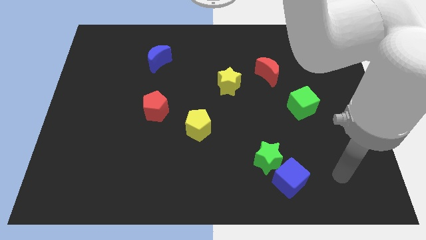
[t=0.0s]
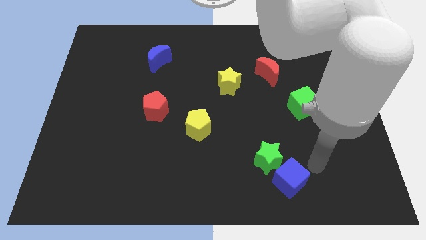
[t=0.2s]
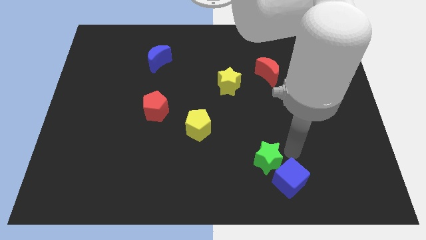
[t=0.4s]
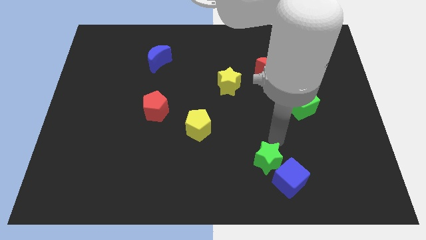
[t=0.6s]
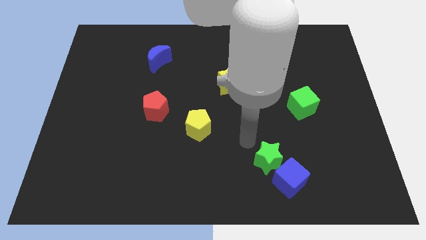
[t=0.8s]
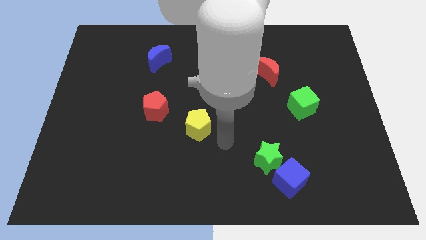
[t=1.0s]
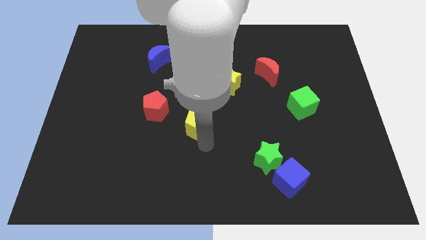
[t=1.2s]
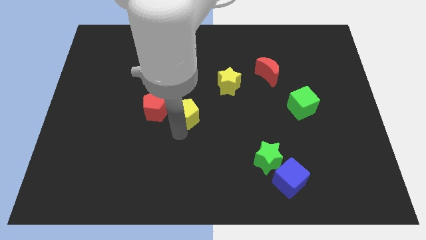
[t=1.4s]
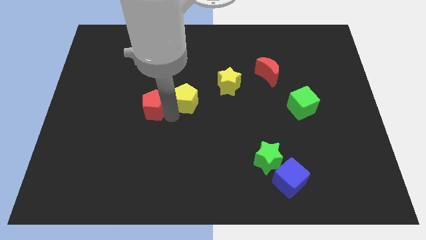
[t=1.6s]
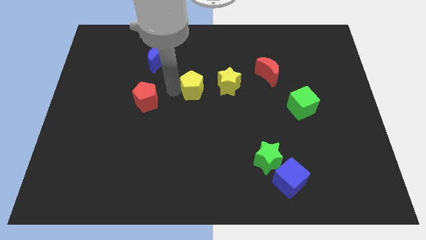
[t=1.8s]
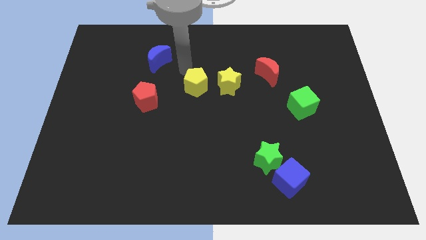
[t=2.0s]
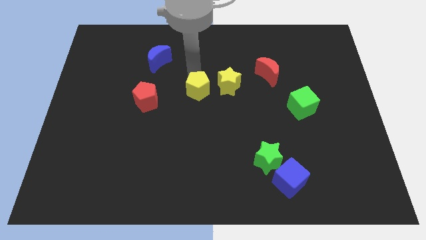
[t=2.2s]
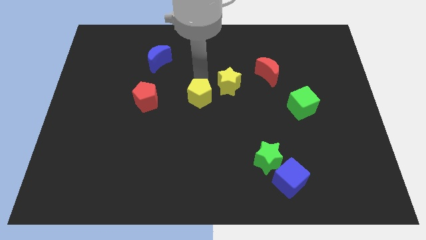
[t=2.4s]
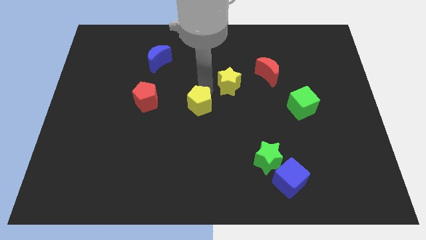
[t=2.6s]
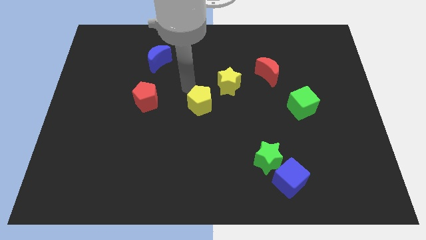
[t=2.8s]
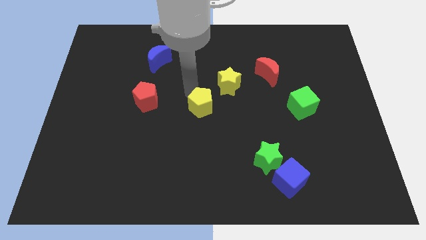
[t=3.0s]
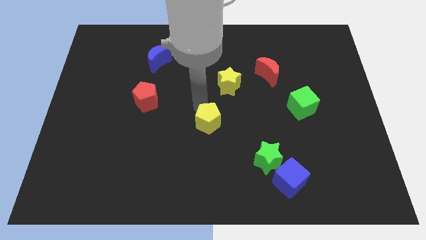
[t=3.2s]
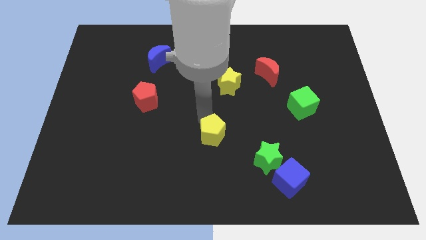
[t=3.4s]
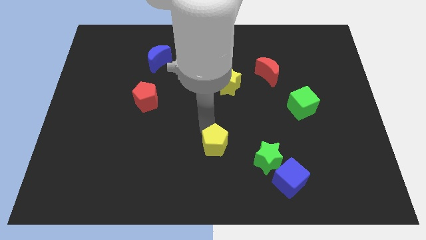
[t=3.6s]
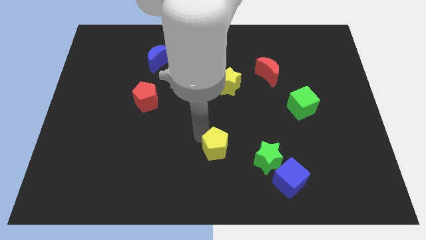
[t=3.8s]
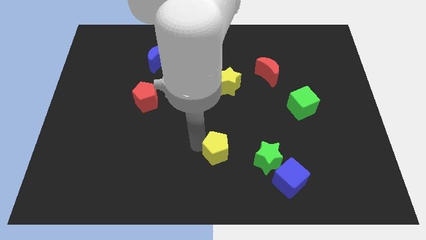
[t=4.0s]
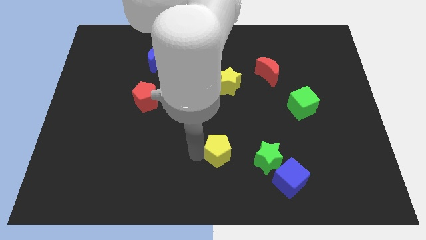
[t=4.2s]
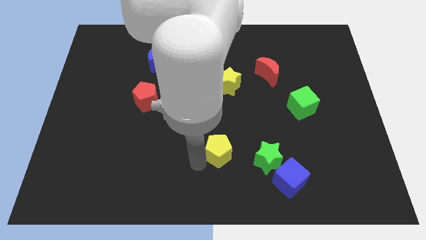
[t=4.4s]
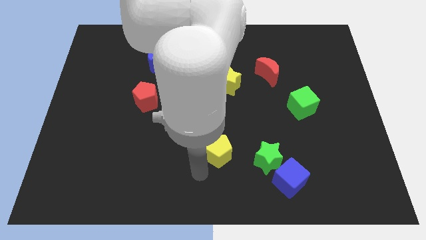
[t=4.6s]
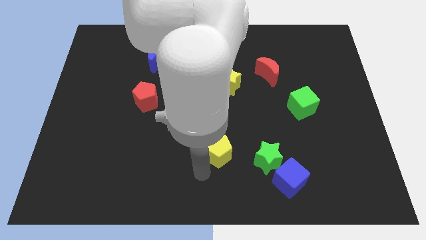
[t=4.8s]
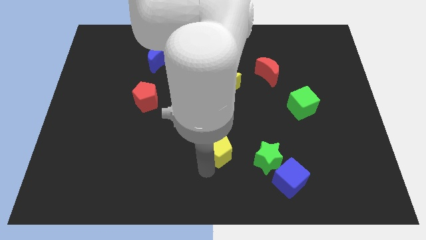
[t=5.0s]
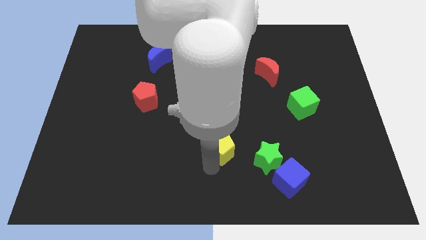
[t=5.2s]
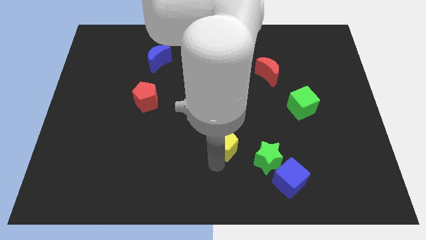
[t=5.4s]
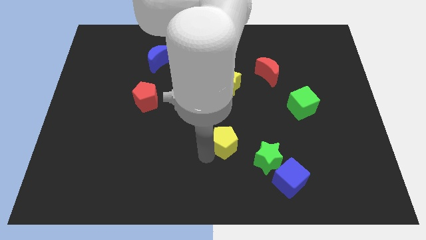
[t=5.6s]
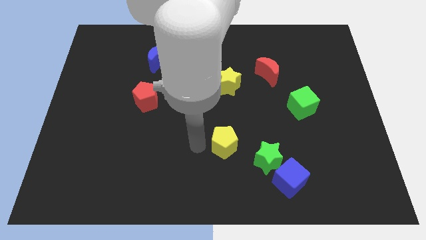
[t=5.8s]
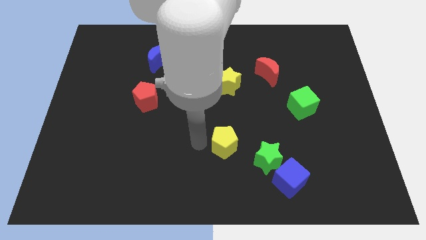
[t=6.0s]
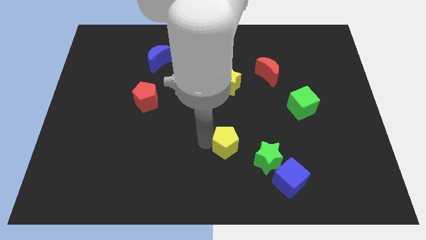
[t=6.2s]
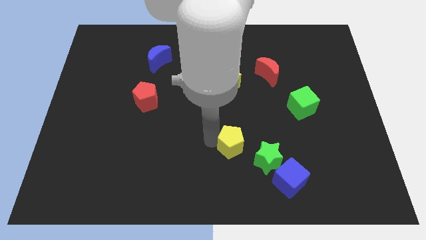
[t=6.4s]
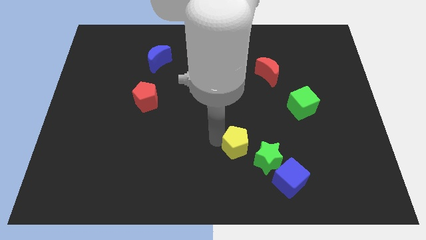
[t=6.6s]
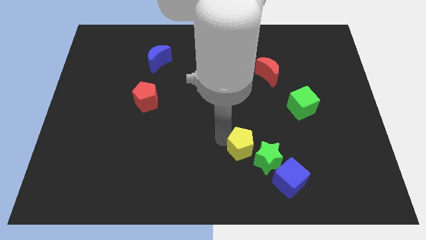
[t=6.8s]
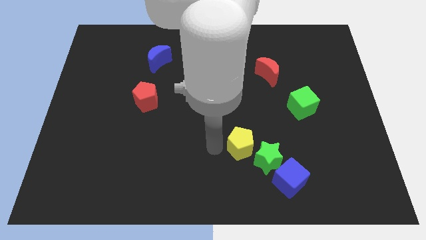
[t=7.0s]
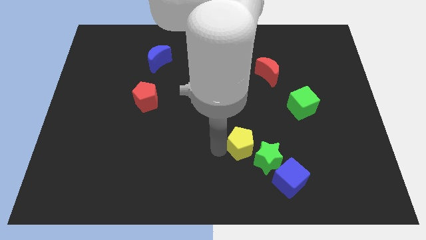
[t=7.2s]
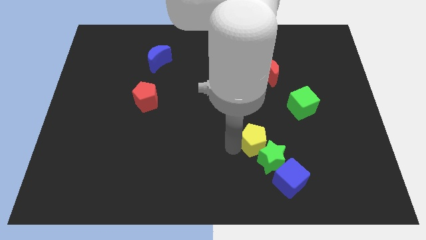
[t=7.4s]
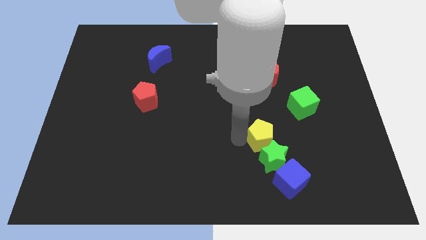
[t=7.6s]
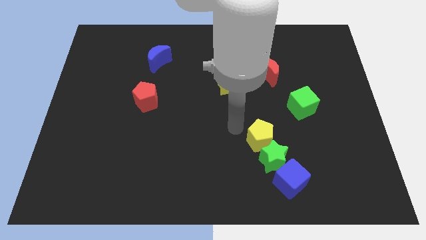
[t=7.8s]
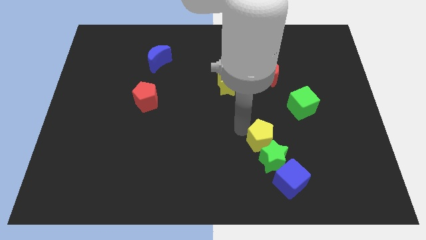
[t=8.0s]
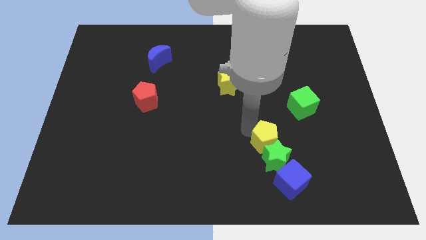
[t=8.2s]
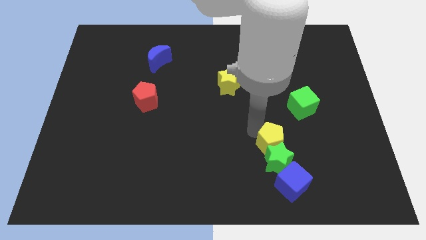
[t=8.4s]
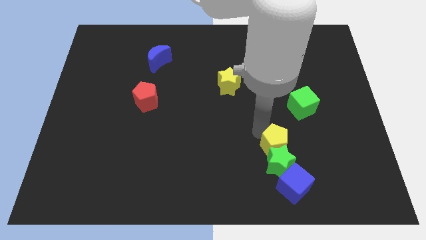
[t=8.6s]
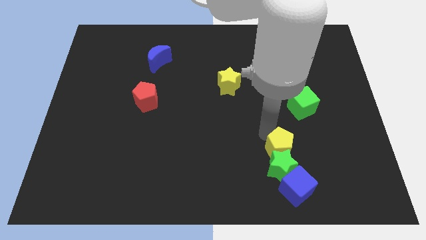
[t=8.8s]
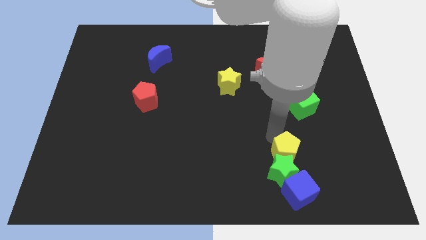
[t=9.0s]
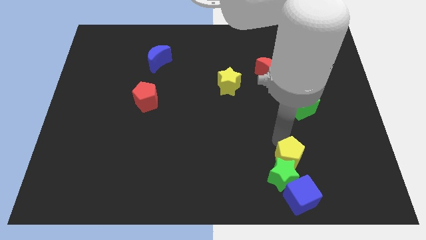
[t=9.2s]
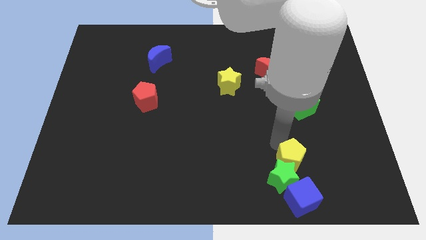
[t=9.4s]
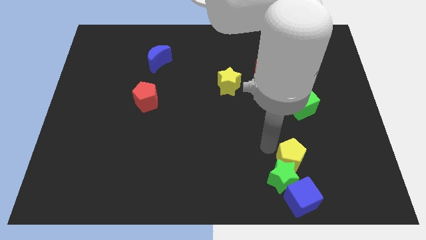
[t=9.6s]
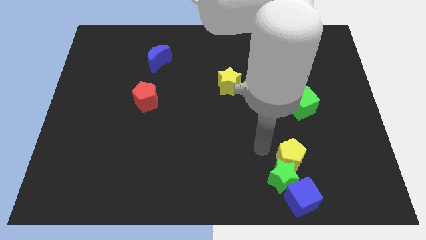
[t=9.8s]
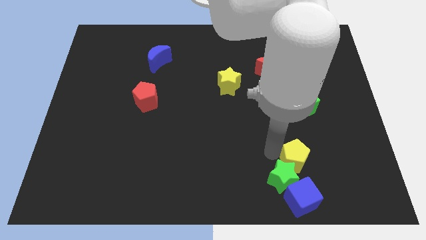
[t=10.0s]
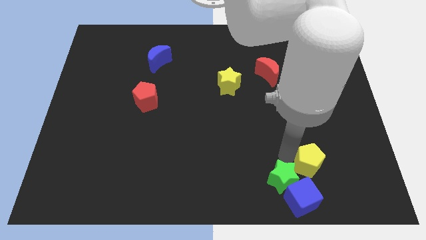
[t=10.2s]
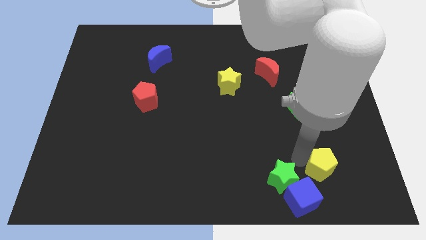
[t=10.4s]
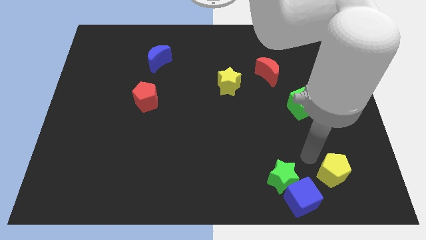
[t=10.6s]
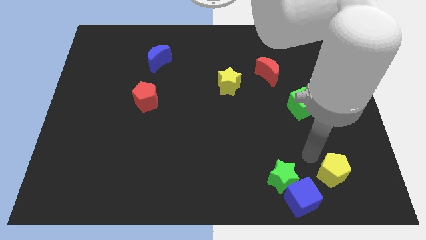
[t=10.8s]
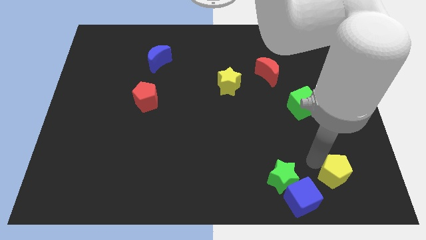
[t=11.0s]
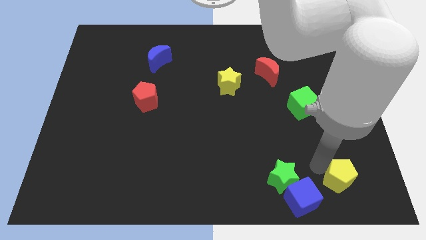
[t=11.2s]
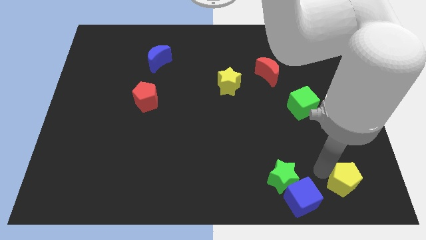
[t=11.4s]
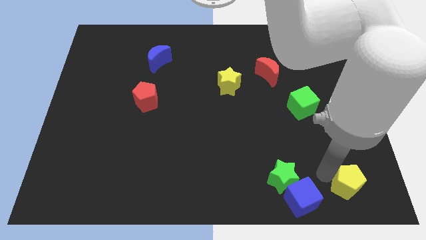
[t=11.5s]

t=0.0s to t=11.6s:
slide the yellow pentagon to the lower right corner

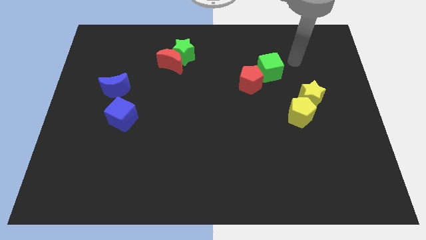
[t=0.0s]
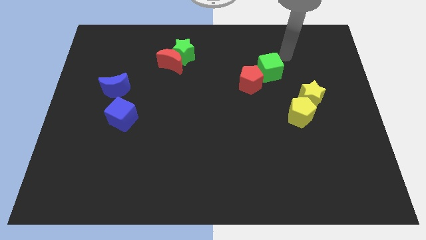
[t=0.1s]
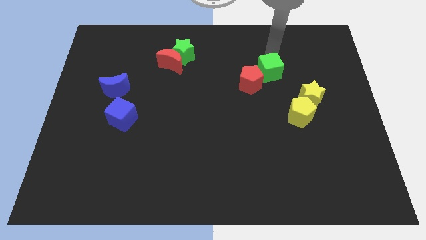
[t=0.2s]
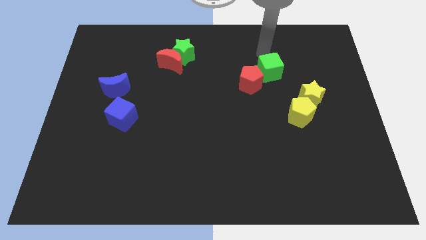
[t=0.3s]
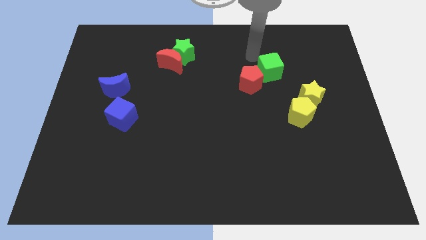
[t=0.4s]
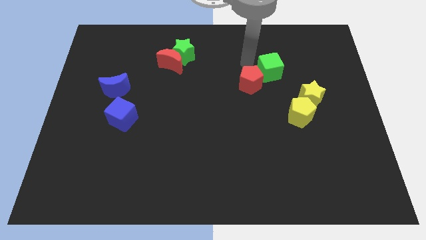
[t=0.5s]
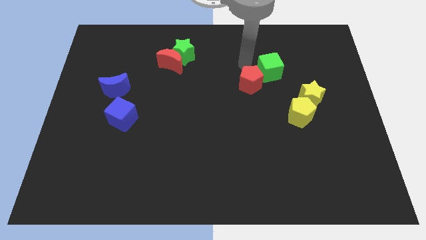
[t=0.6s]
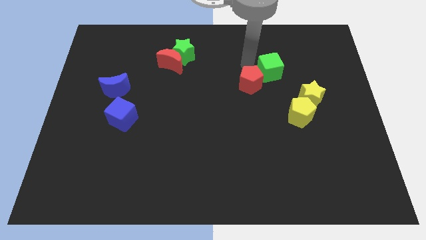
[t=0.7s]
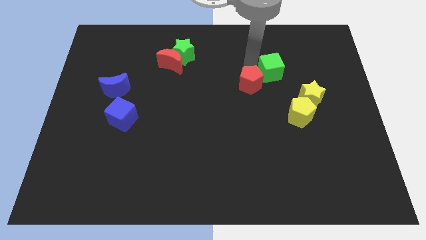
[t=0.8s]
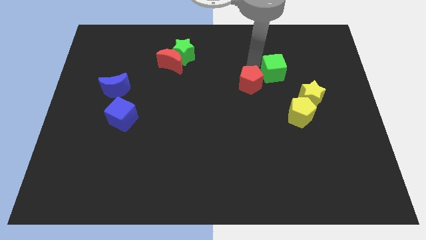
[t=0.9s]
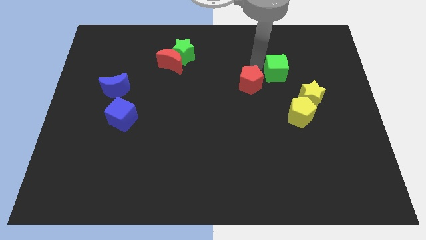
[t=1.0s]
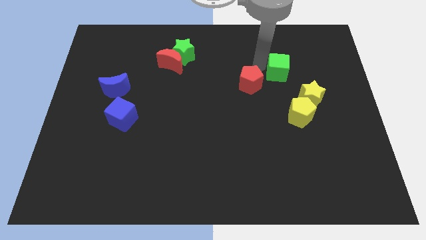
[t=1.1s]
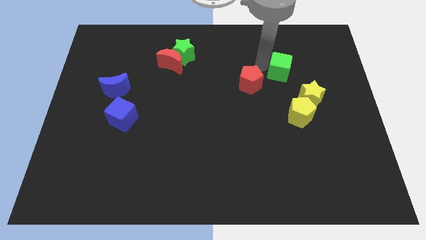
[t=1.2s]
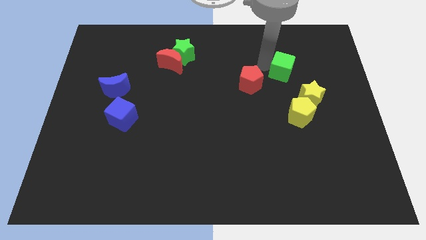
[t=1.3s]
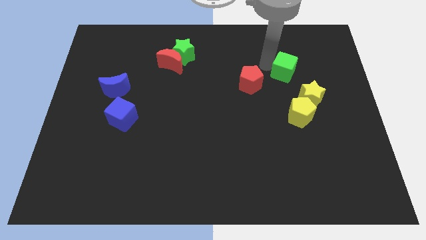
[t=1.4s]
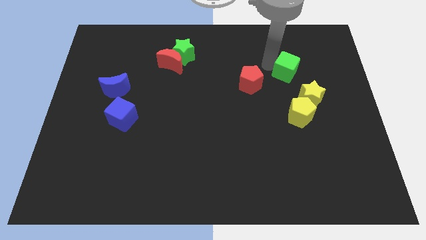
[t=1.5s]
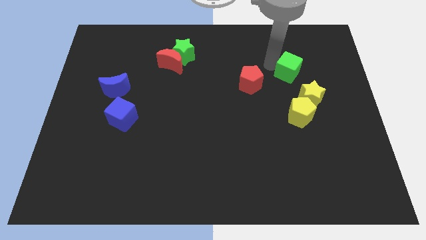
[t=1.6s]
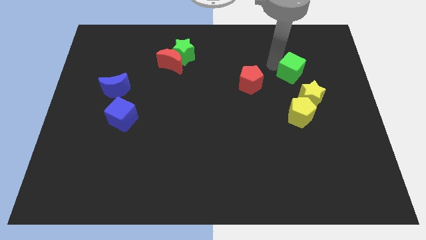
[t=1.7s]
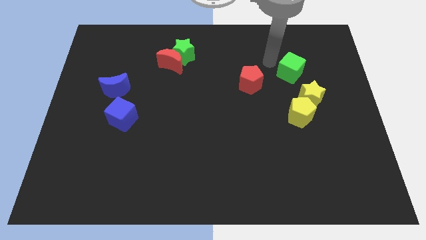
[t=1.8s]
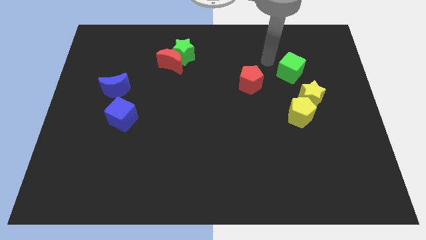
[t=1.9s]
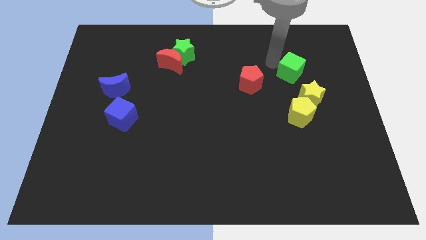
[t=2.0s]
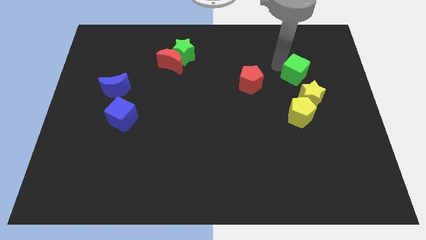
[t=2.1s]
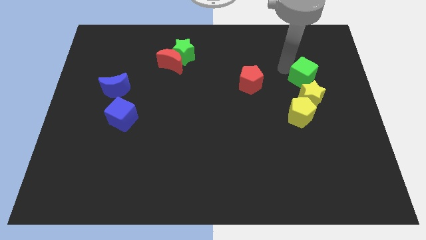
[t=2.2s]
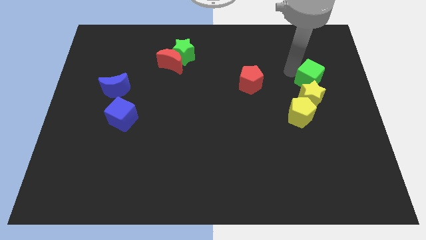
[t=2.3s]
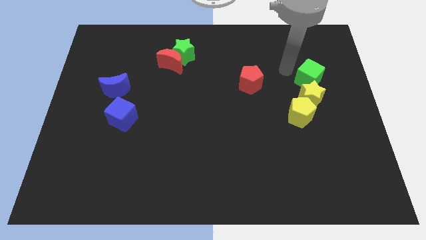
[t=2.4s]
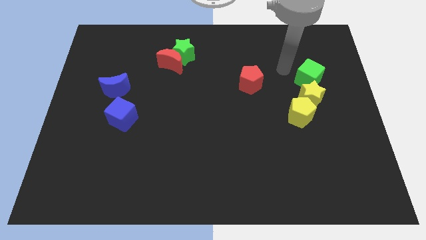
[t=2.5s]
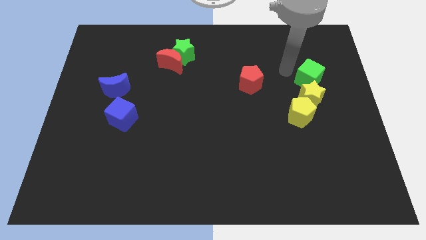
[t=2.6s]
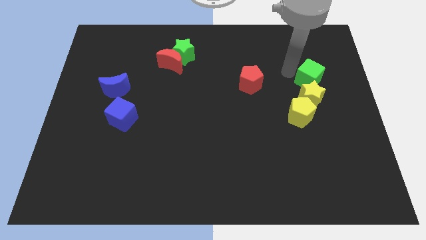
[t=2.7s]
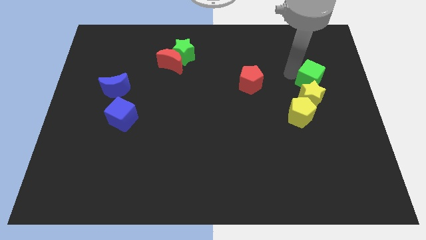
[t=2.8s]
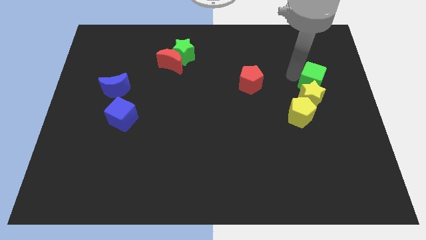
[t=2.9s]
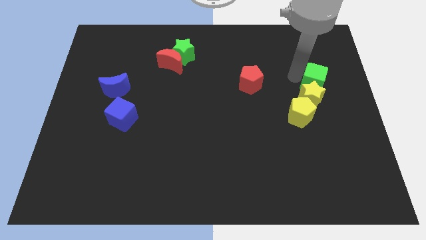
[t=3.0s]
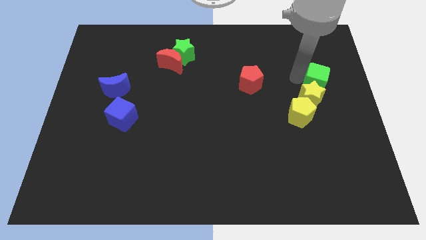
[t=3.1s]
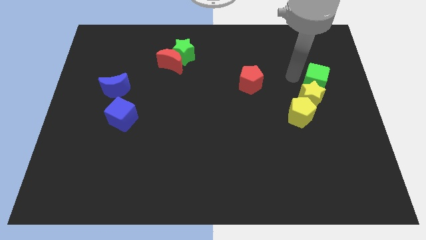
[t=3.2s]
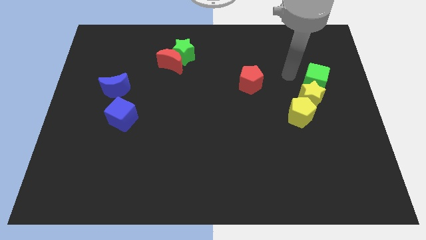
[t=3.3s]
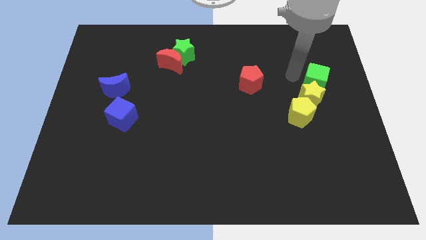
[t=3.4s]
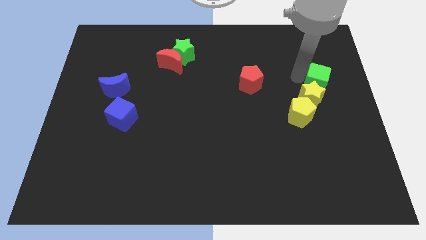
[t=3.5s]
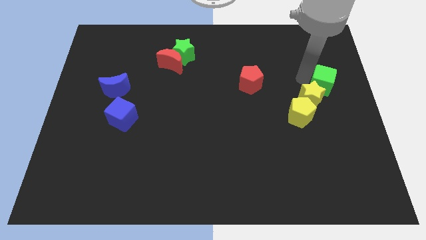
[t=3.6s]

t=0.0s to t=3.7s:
push the green cube to the right side of the board
